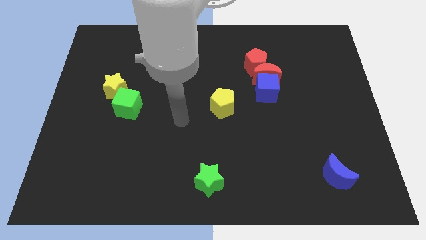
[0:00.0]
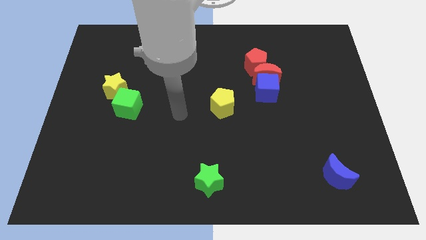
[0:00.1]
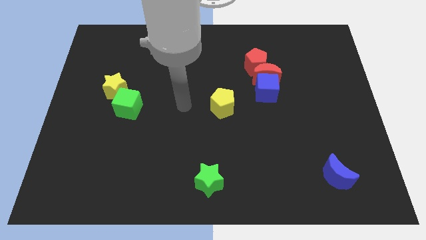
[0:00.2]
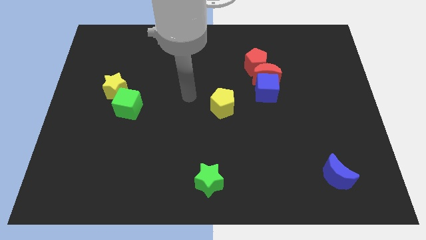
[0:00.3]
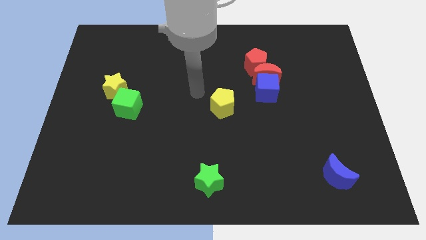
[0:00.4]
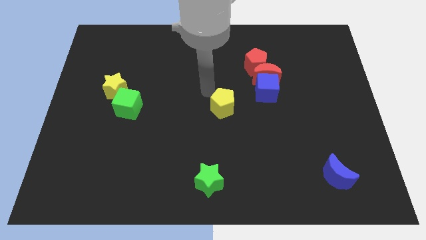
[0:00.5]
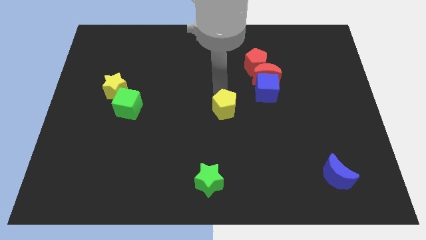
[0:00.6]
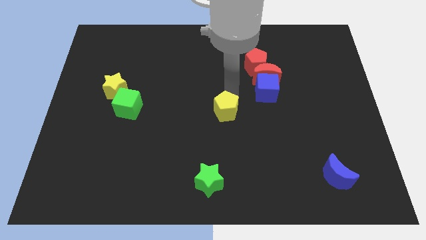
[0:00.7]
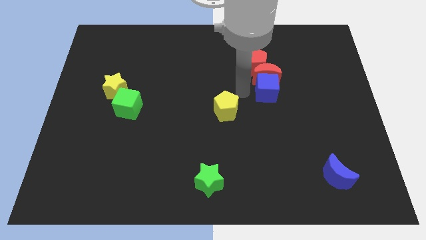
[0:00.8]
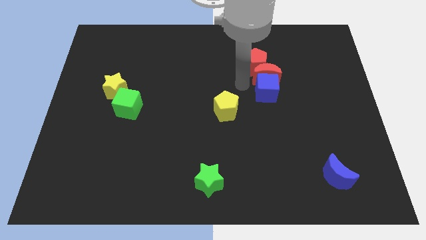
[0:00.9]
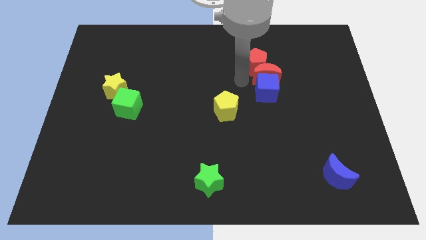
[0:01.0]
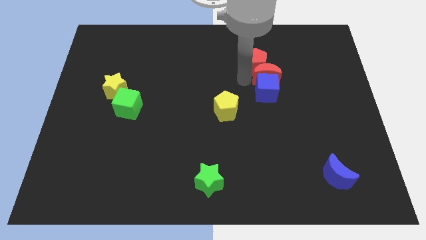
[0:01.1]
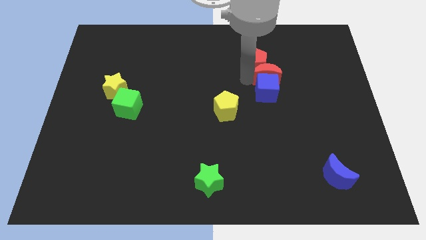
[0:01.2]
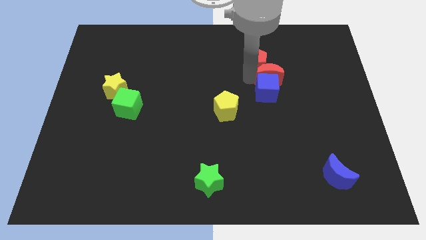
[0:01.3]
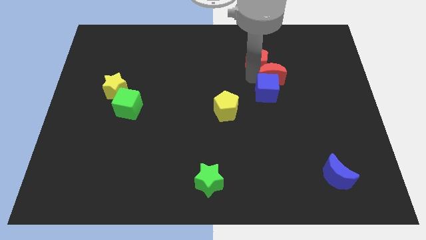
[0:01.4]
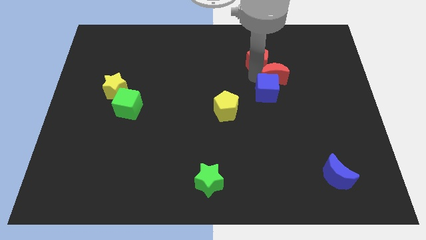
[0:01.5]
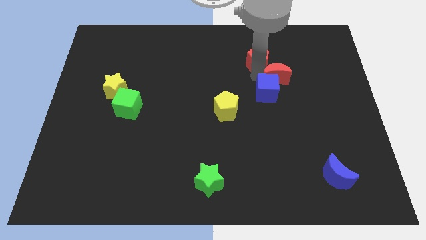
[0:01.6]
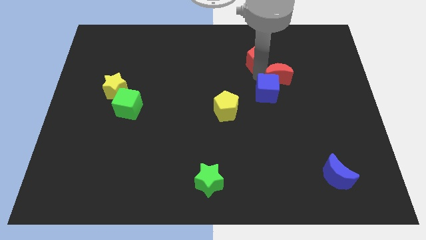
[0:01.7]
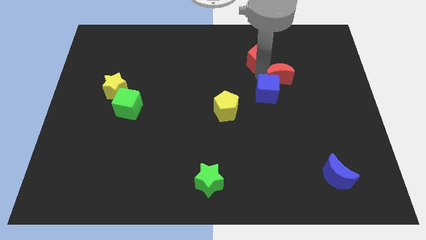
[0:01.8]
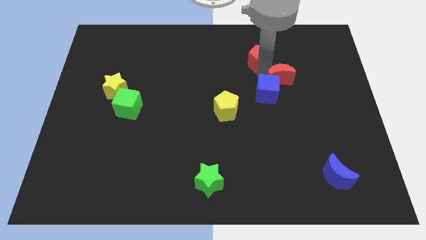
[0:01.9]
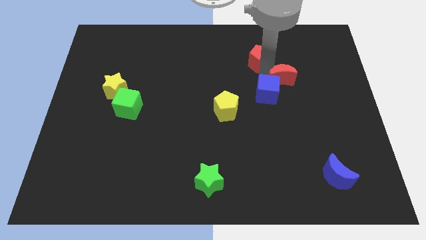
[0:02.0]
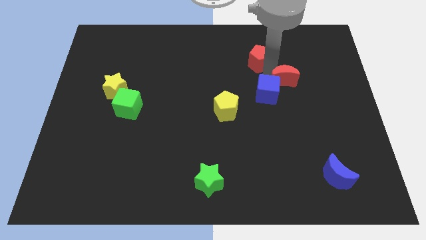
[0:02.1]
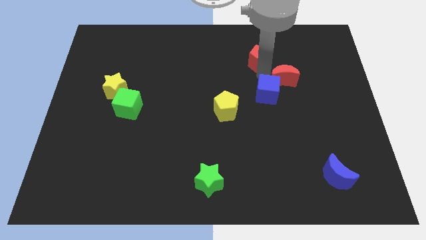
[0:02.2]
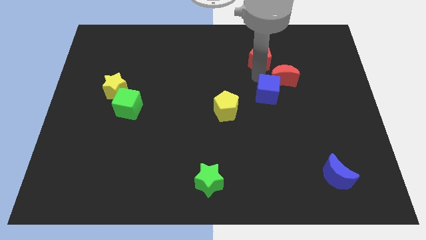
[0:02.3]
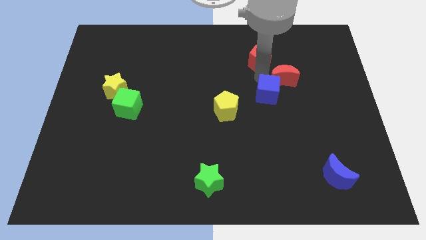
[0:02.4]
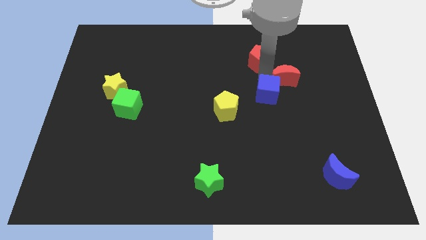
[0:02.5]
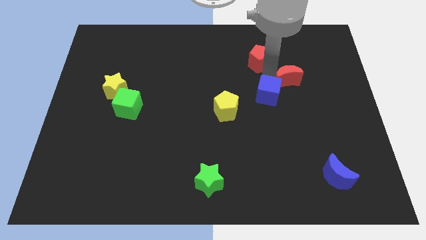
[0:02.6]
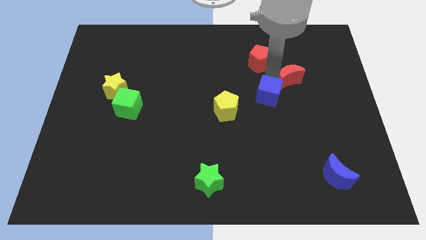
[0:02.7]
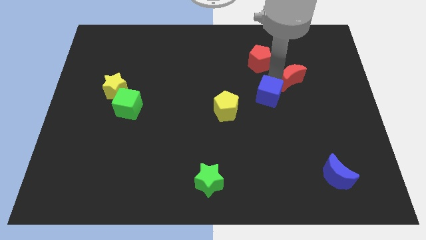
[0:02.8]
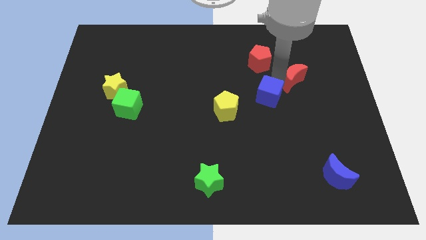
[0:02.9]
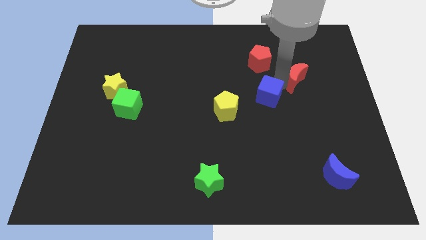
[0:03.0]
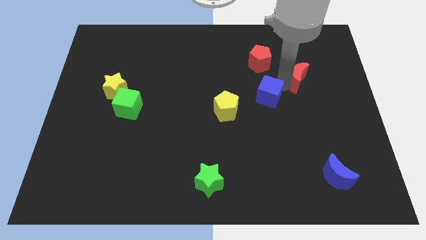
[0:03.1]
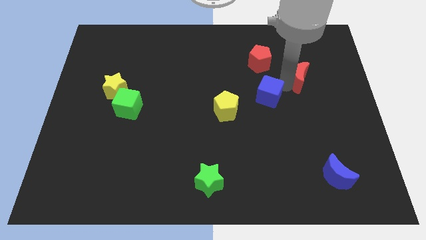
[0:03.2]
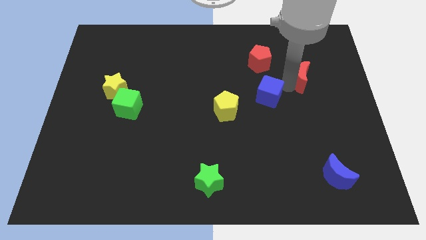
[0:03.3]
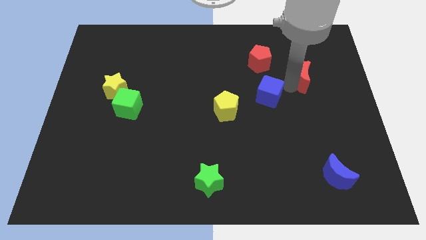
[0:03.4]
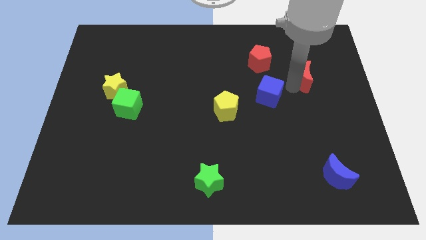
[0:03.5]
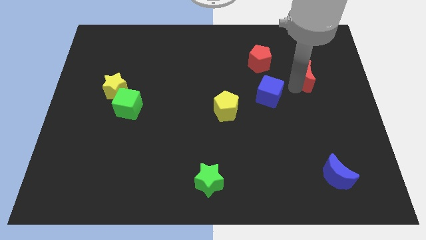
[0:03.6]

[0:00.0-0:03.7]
pull the red moon apart from the blue cube and red pentagon

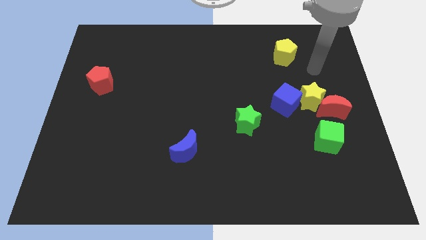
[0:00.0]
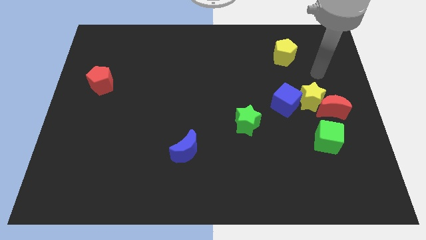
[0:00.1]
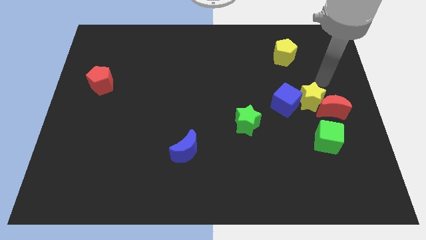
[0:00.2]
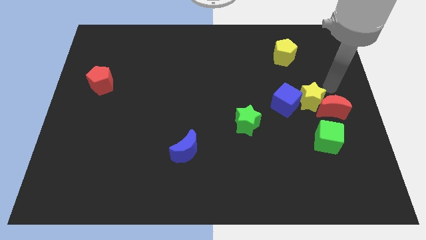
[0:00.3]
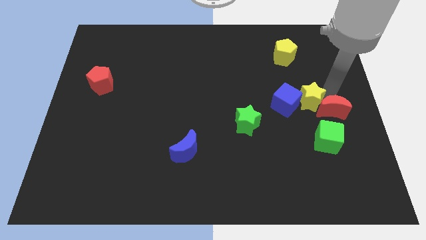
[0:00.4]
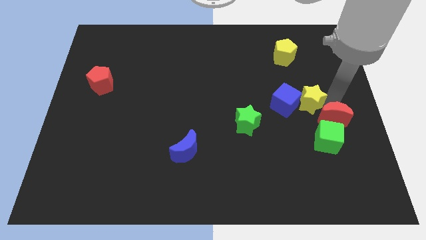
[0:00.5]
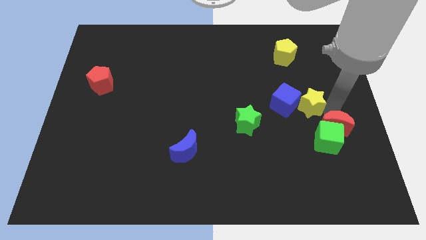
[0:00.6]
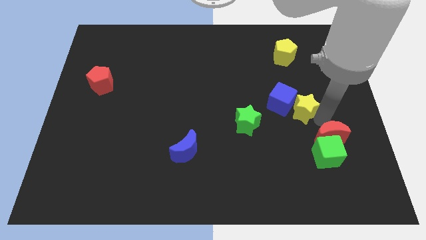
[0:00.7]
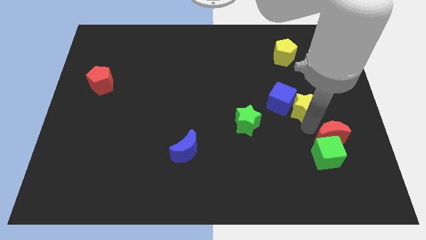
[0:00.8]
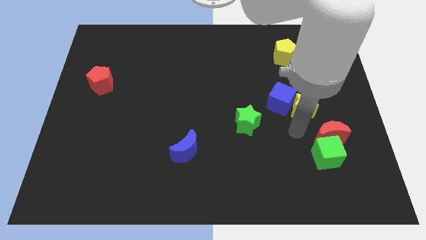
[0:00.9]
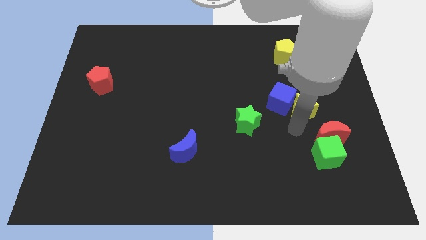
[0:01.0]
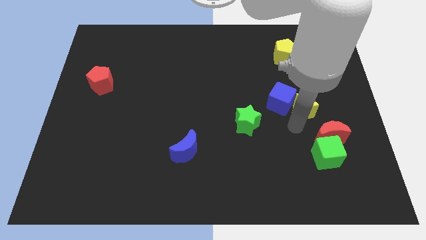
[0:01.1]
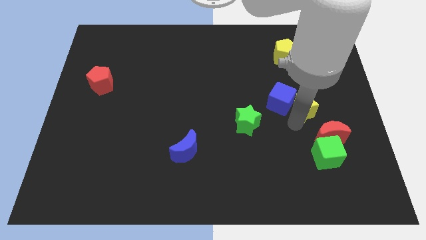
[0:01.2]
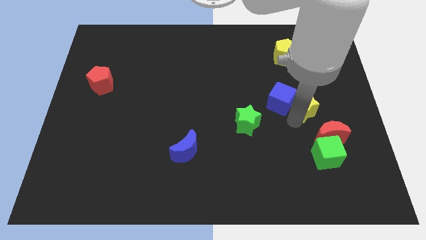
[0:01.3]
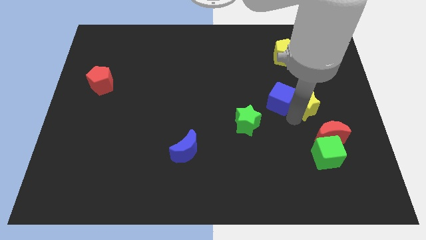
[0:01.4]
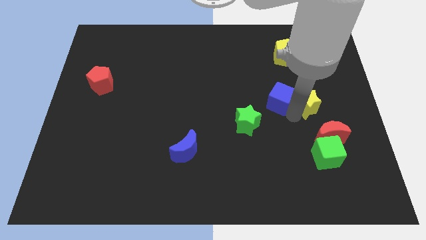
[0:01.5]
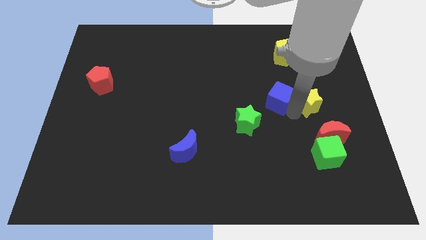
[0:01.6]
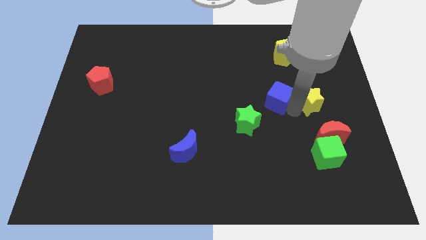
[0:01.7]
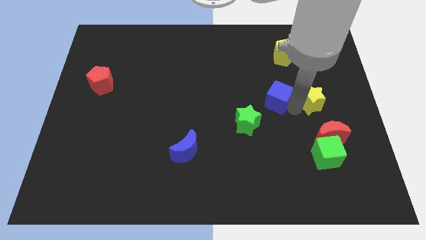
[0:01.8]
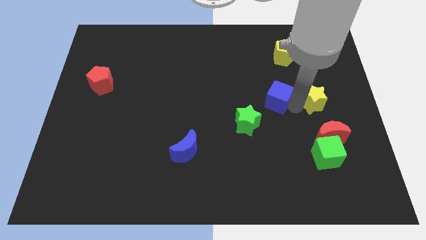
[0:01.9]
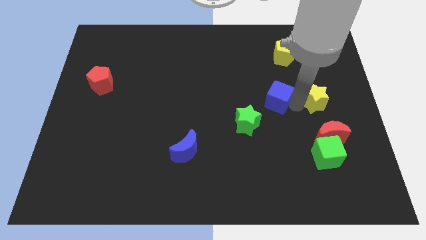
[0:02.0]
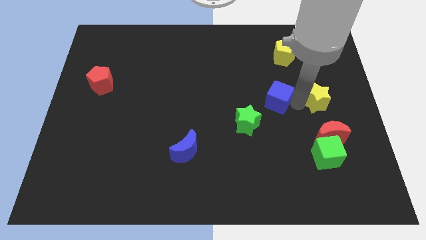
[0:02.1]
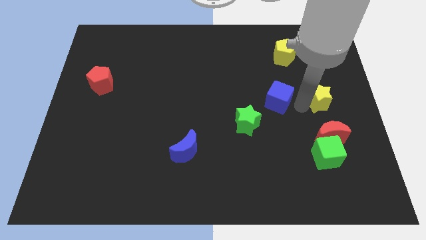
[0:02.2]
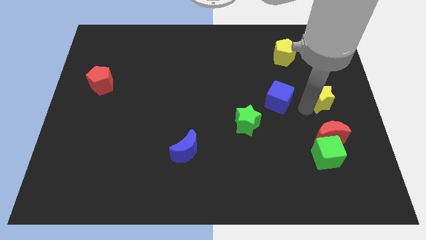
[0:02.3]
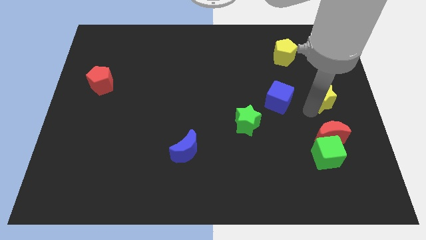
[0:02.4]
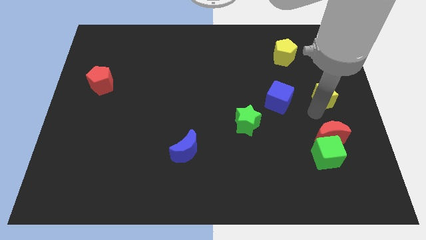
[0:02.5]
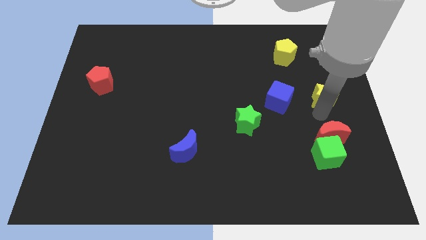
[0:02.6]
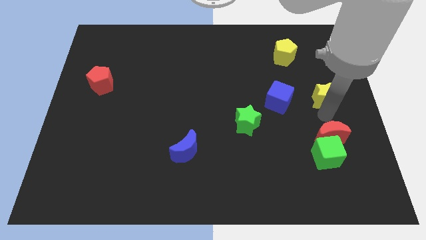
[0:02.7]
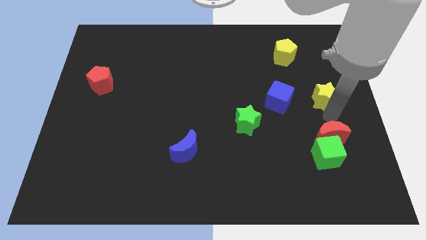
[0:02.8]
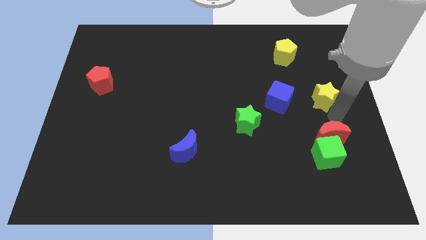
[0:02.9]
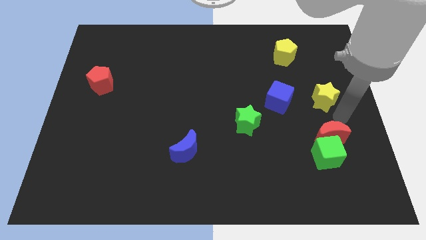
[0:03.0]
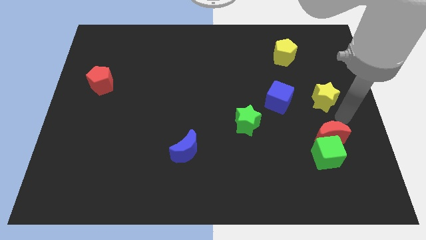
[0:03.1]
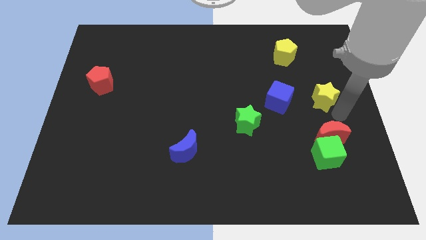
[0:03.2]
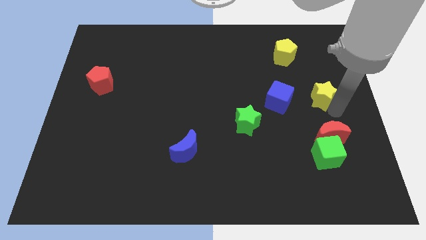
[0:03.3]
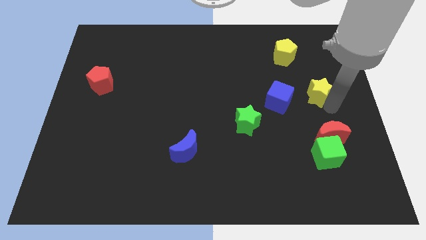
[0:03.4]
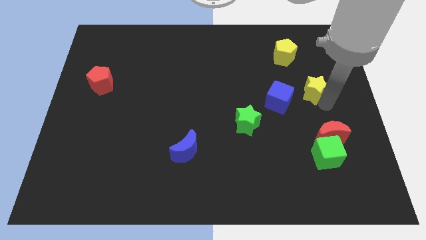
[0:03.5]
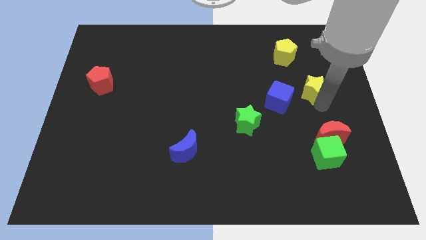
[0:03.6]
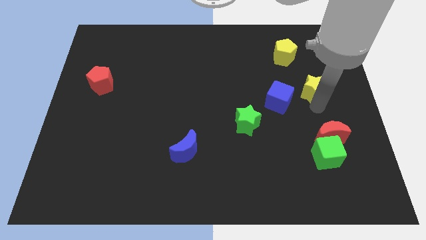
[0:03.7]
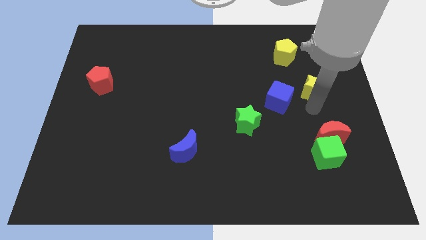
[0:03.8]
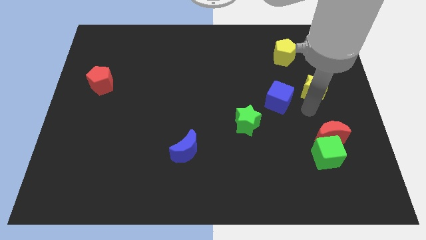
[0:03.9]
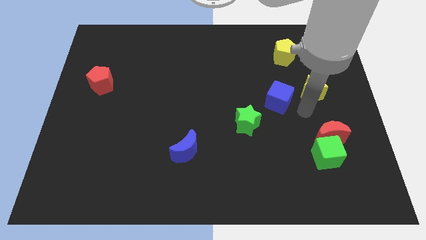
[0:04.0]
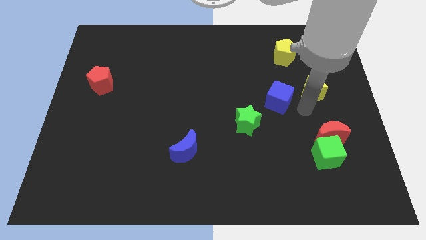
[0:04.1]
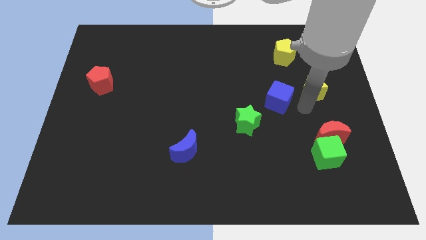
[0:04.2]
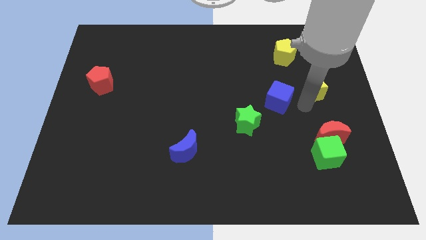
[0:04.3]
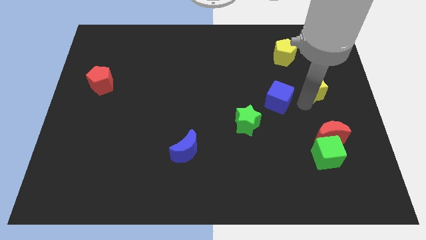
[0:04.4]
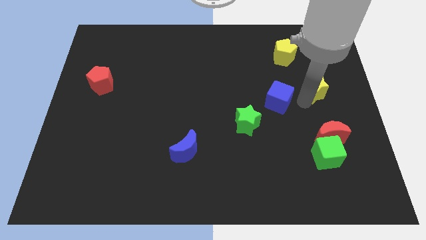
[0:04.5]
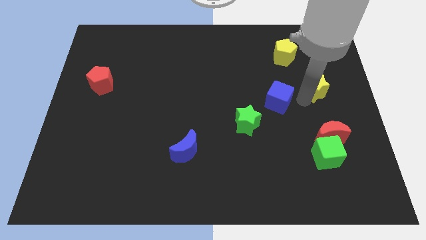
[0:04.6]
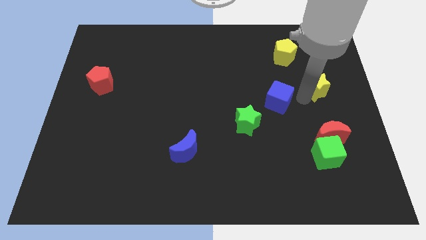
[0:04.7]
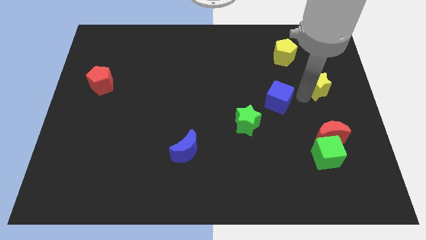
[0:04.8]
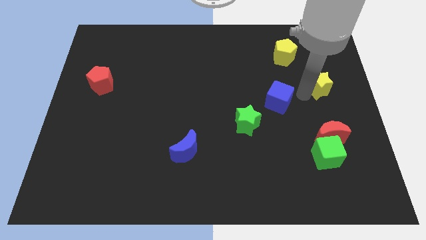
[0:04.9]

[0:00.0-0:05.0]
move the yellow star away from the red moon and blue cube

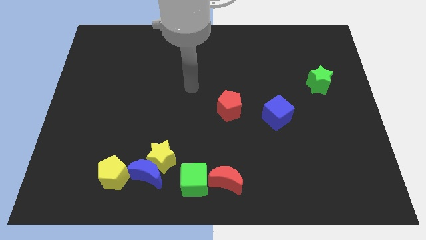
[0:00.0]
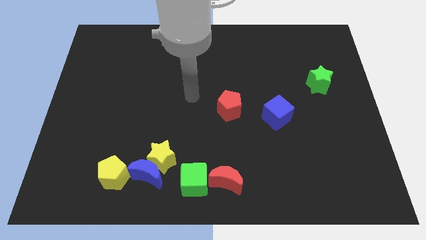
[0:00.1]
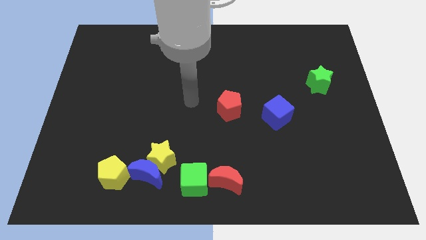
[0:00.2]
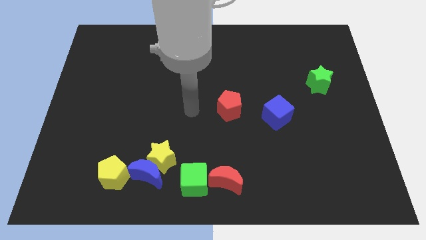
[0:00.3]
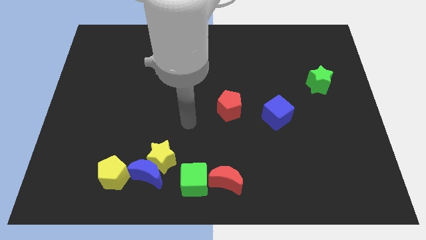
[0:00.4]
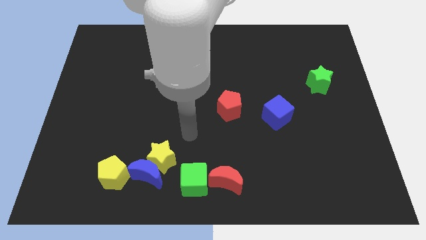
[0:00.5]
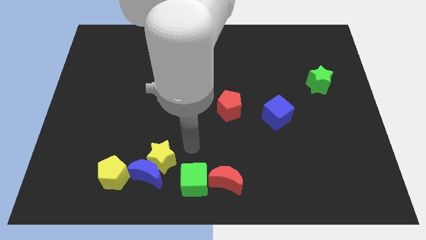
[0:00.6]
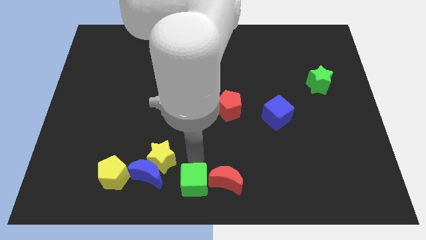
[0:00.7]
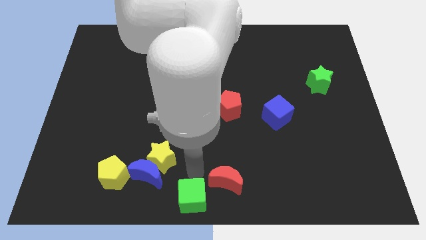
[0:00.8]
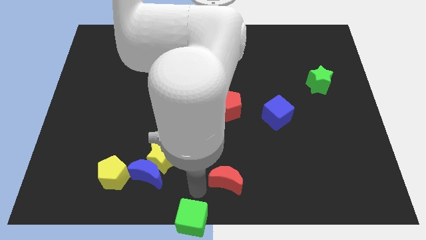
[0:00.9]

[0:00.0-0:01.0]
move the red moon away from the green cube
